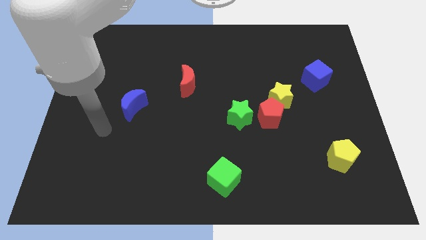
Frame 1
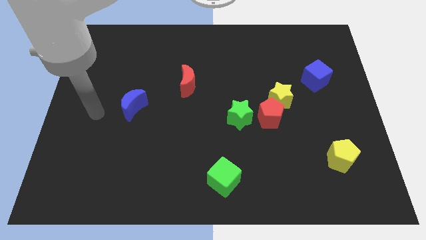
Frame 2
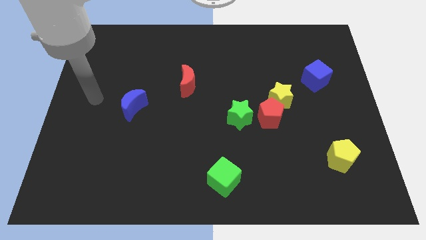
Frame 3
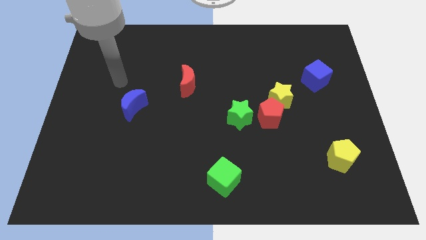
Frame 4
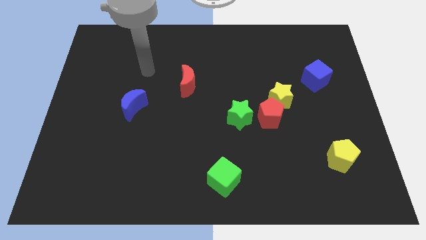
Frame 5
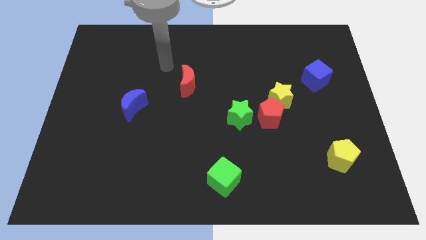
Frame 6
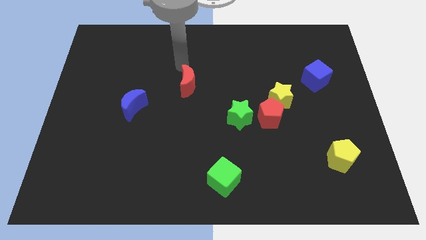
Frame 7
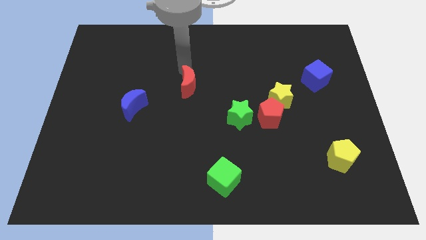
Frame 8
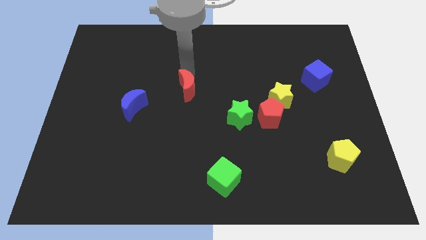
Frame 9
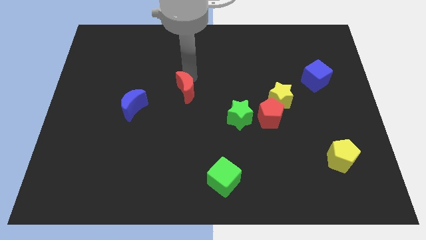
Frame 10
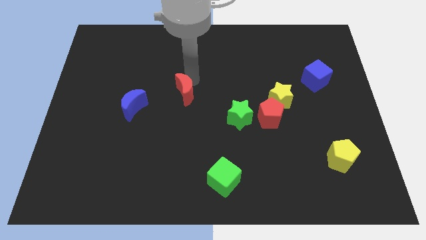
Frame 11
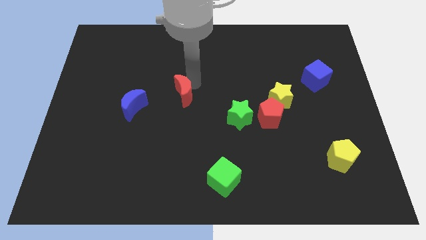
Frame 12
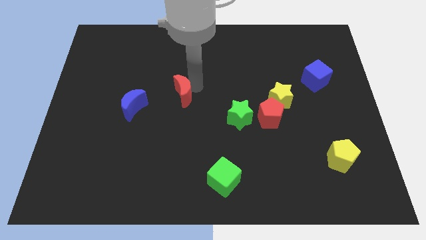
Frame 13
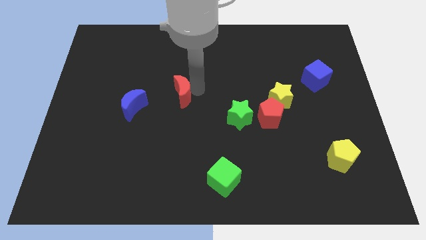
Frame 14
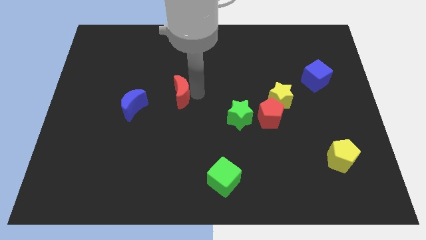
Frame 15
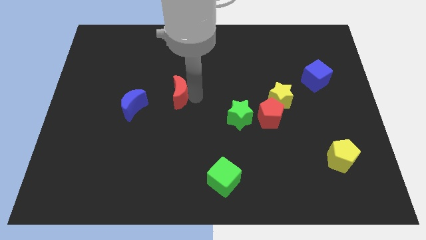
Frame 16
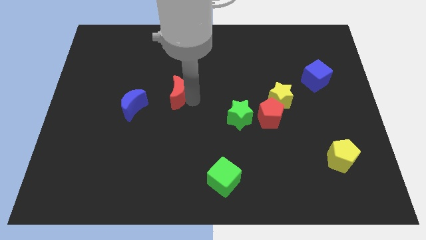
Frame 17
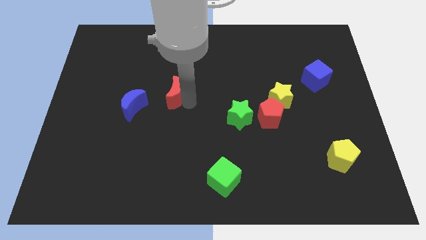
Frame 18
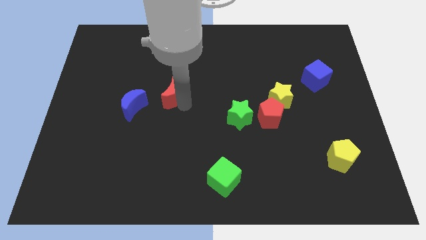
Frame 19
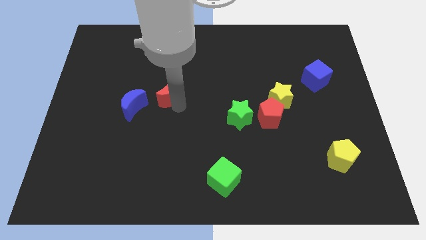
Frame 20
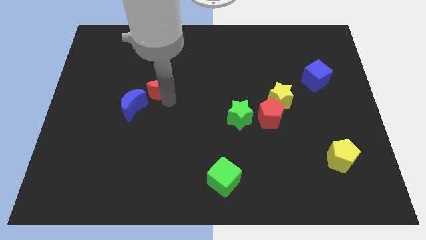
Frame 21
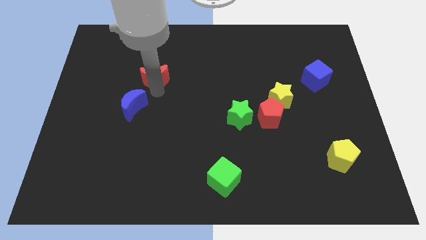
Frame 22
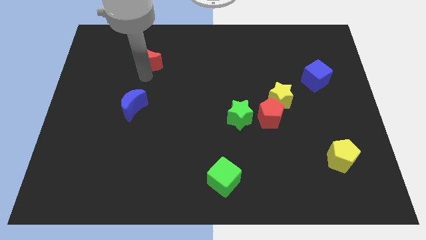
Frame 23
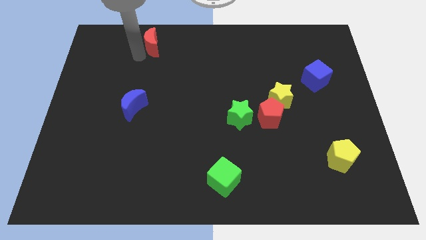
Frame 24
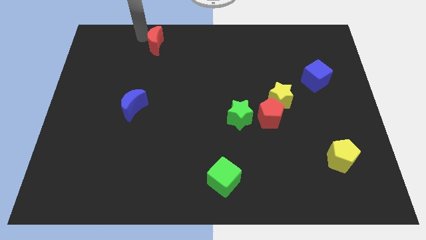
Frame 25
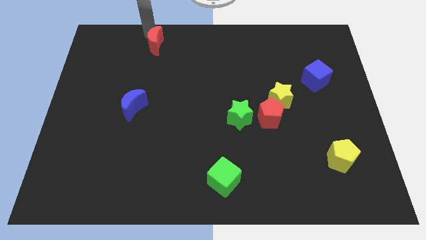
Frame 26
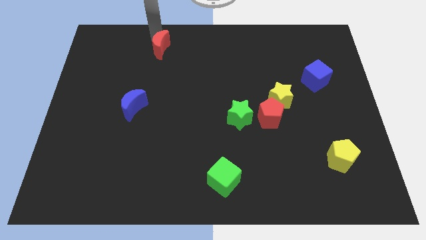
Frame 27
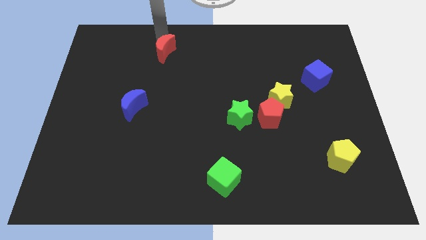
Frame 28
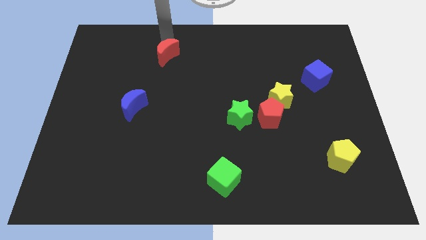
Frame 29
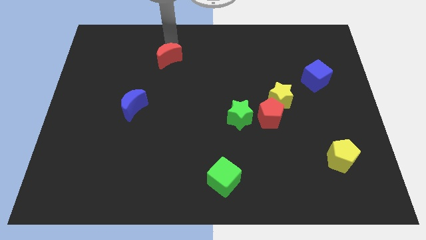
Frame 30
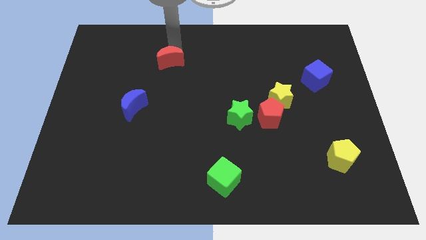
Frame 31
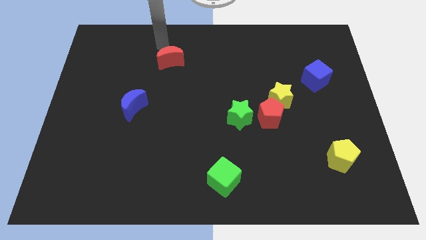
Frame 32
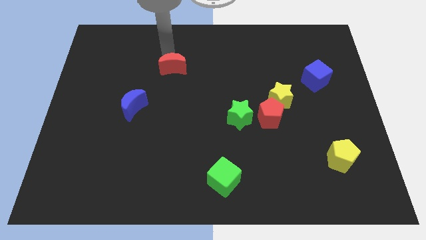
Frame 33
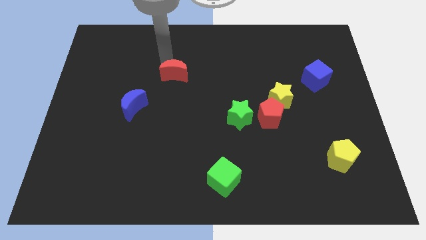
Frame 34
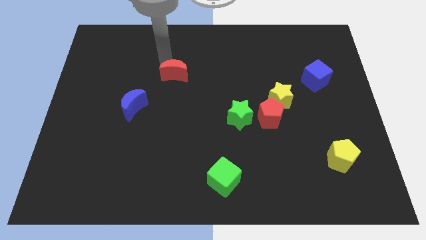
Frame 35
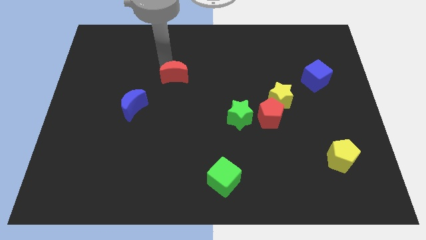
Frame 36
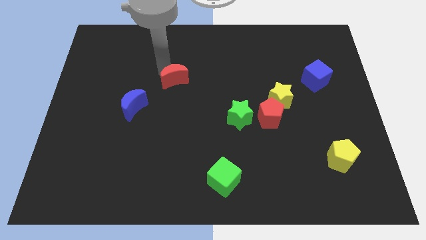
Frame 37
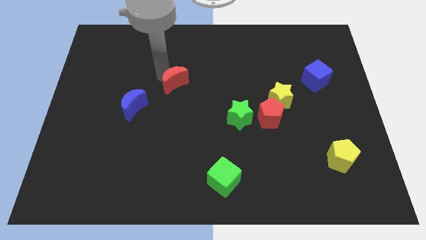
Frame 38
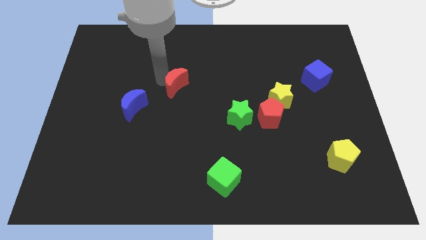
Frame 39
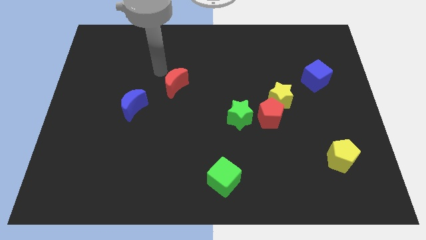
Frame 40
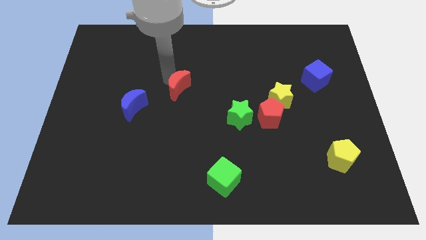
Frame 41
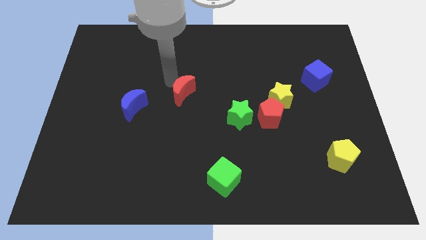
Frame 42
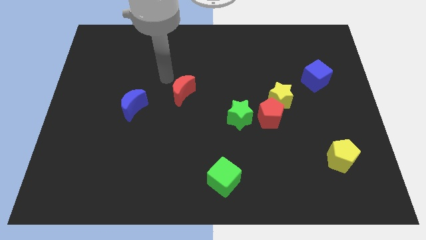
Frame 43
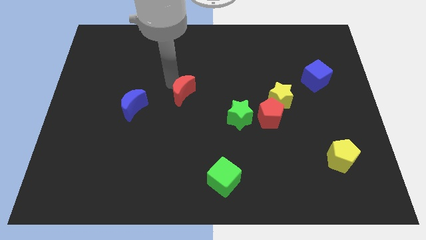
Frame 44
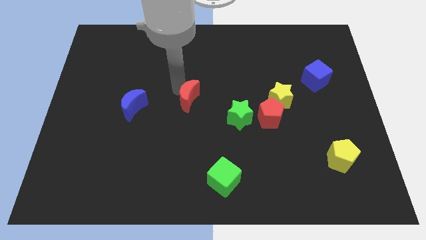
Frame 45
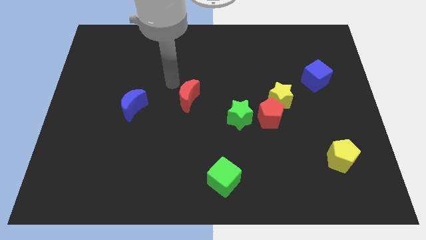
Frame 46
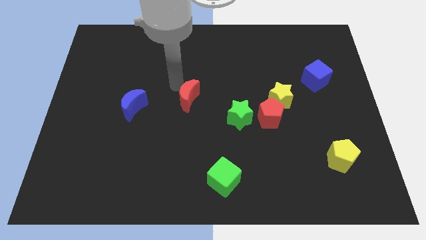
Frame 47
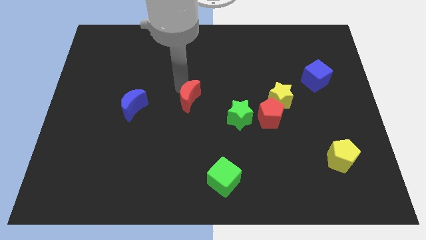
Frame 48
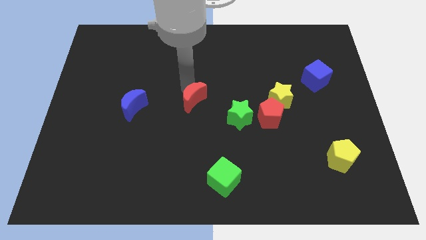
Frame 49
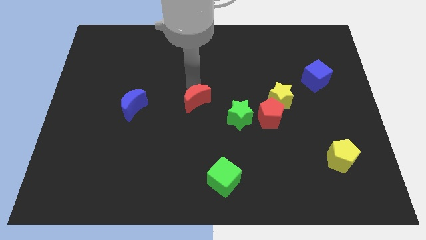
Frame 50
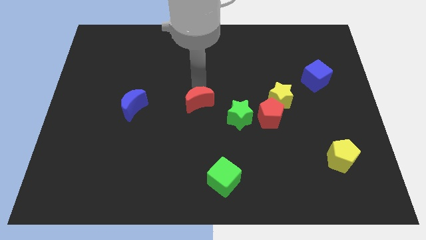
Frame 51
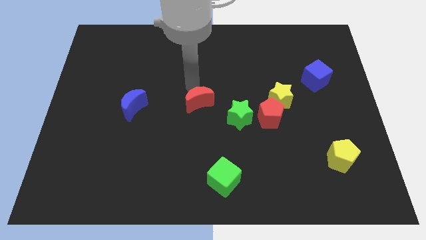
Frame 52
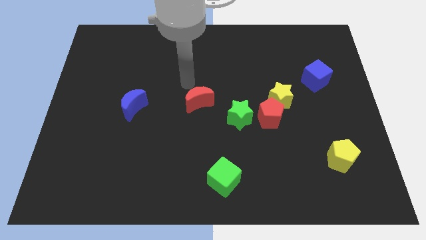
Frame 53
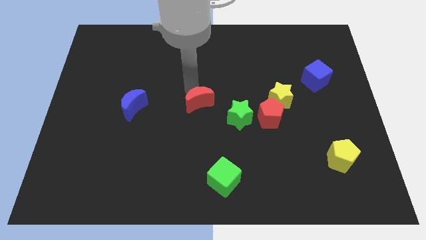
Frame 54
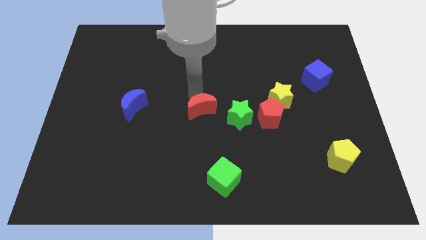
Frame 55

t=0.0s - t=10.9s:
push the red moon diagonally downwards and right a little

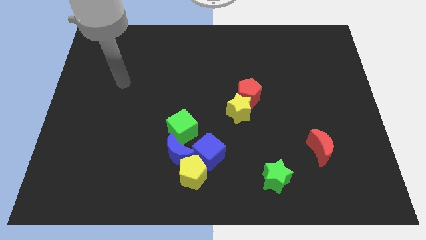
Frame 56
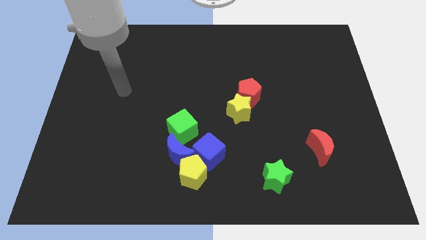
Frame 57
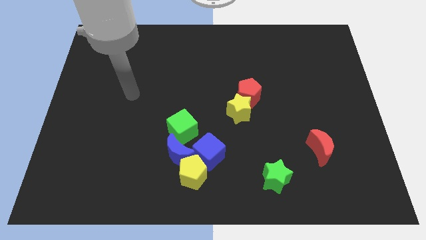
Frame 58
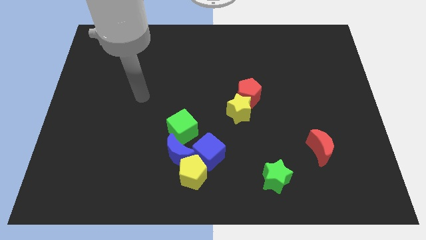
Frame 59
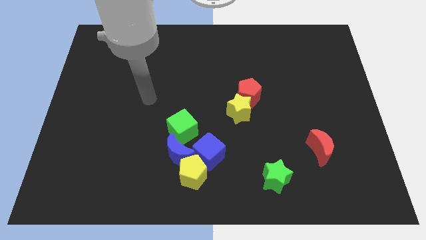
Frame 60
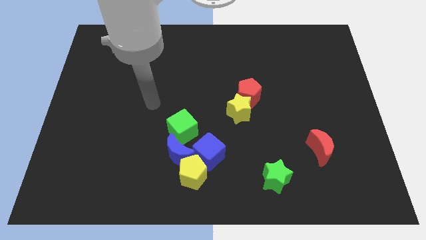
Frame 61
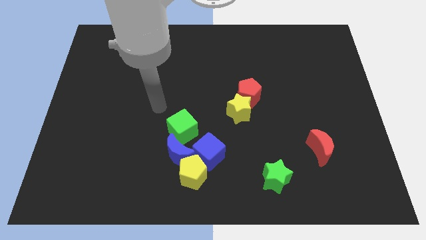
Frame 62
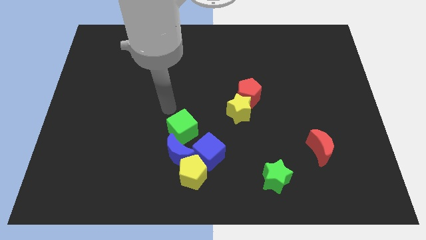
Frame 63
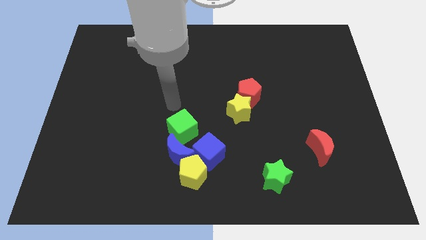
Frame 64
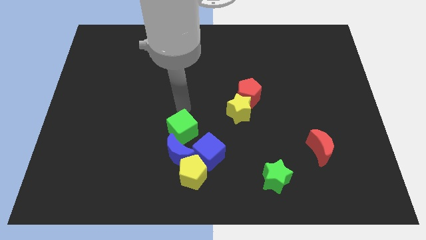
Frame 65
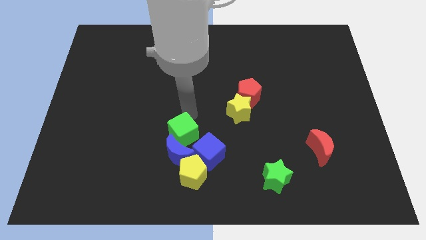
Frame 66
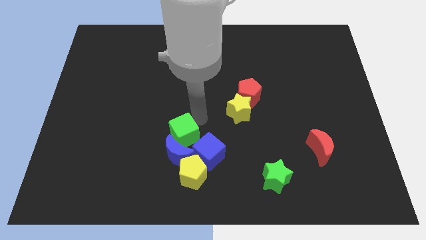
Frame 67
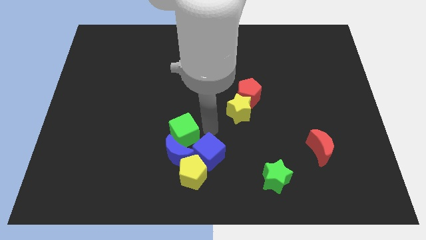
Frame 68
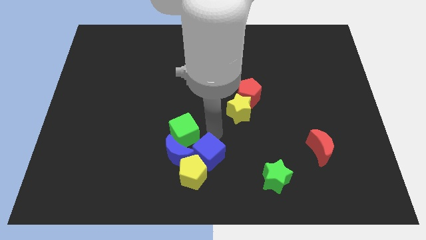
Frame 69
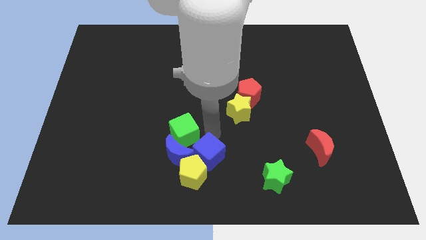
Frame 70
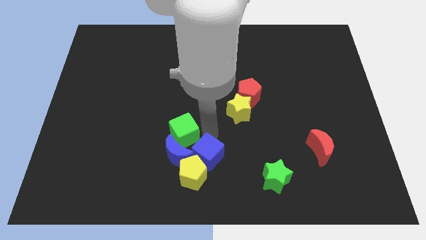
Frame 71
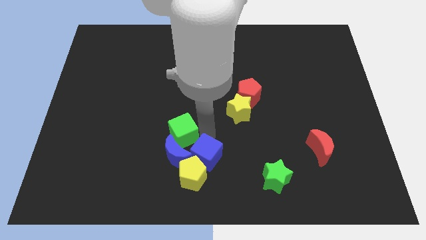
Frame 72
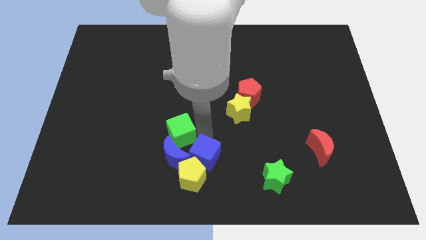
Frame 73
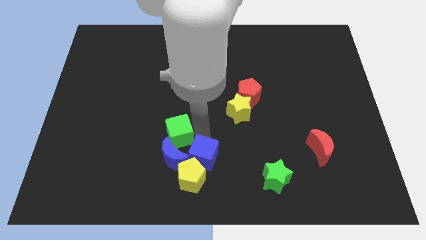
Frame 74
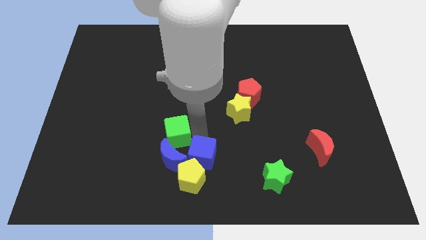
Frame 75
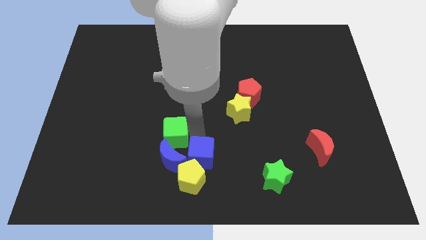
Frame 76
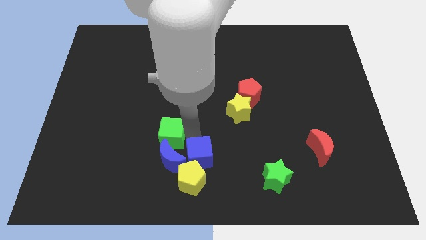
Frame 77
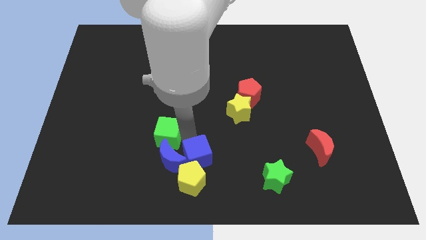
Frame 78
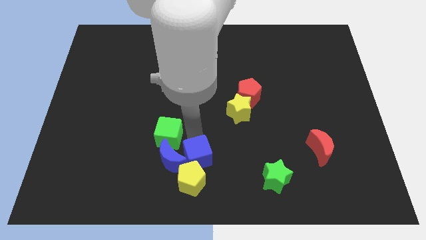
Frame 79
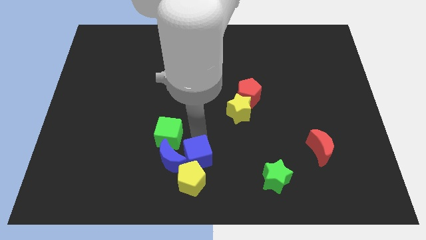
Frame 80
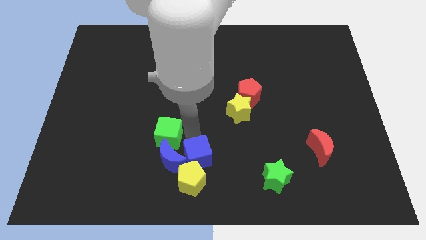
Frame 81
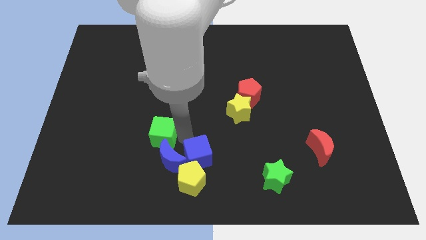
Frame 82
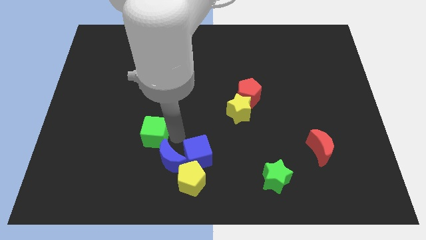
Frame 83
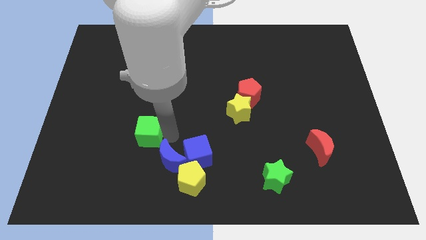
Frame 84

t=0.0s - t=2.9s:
slightly push the green cube left
